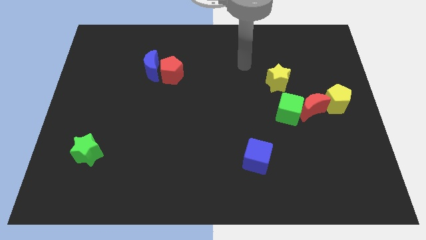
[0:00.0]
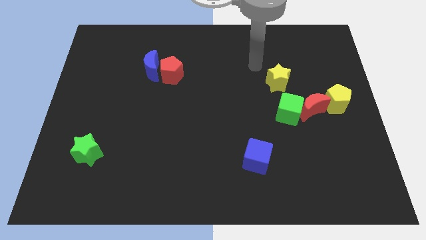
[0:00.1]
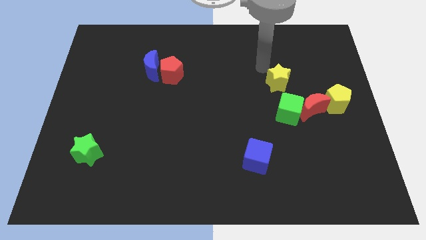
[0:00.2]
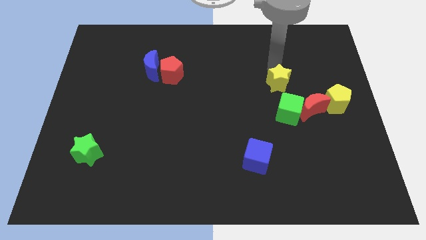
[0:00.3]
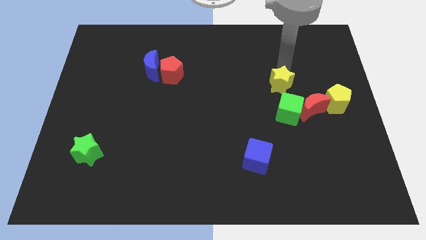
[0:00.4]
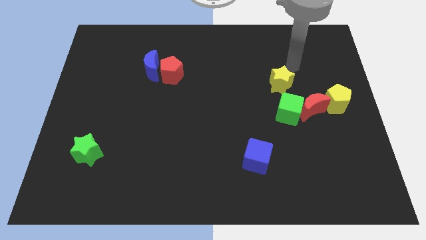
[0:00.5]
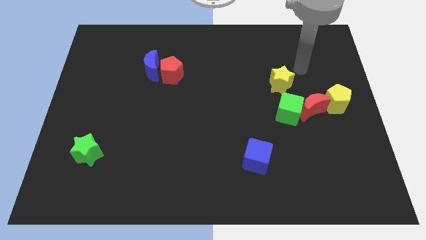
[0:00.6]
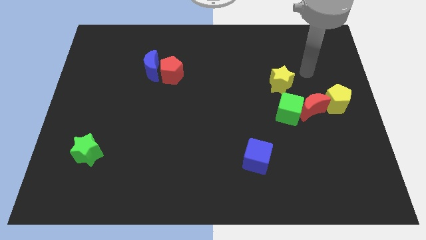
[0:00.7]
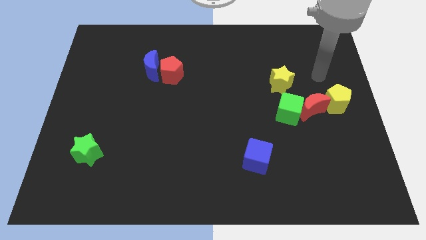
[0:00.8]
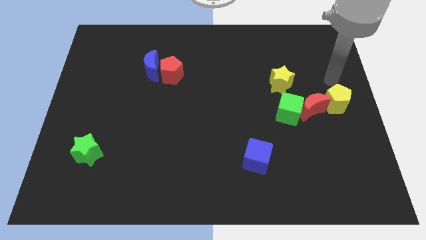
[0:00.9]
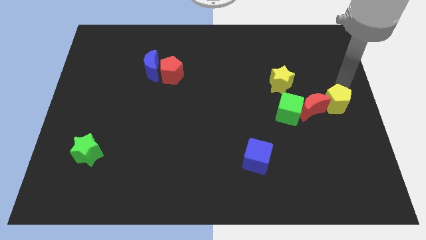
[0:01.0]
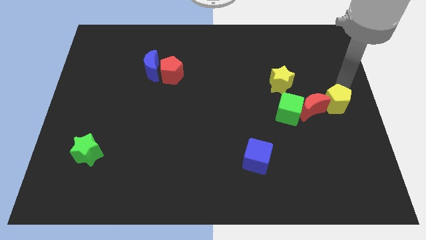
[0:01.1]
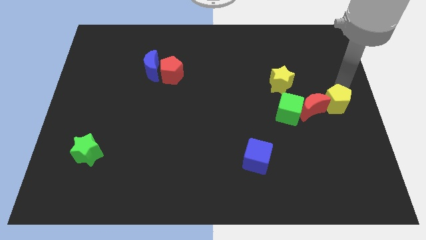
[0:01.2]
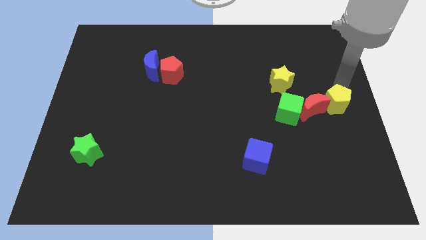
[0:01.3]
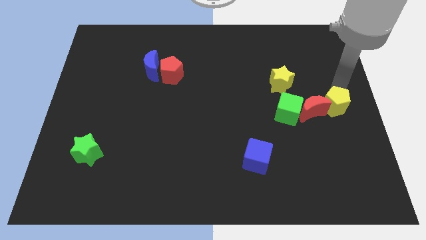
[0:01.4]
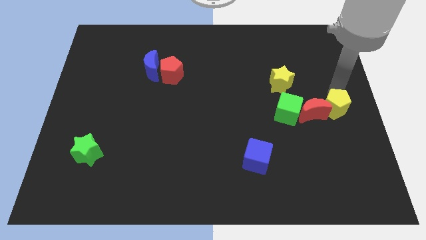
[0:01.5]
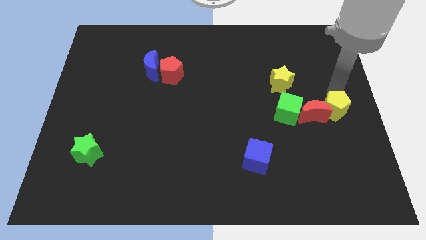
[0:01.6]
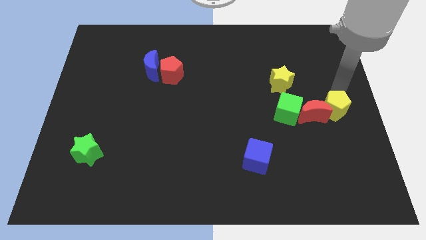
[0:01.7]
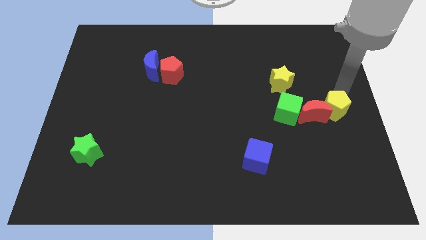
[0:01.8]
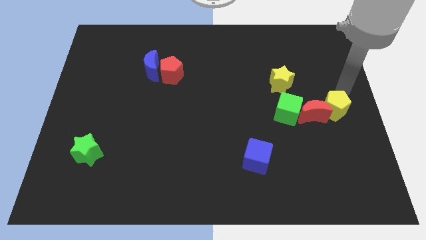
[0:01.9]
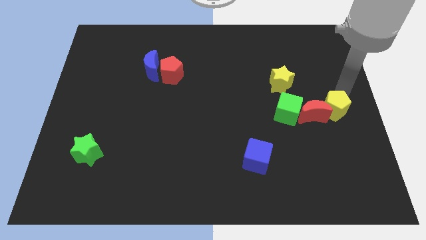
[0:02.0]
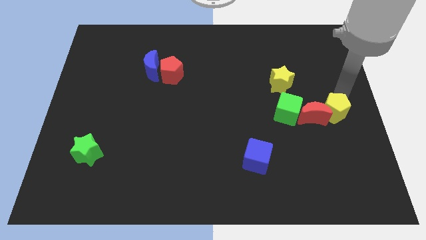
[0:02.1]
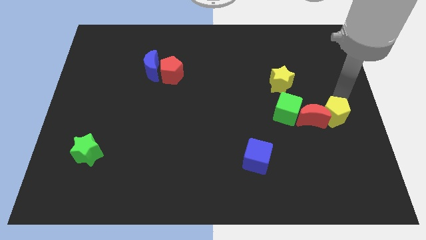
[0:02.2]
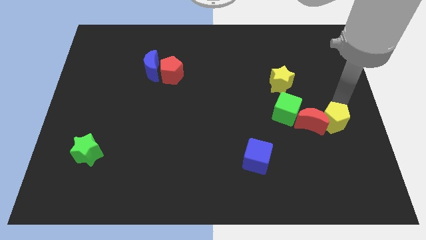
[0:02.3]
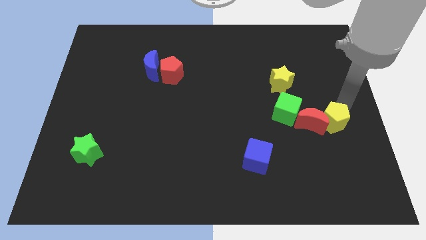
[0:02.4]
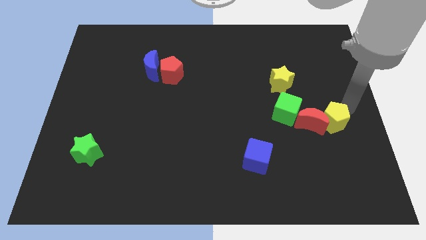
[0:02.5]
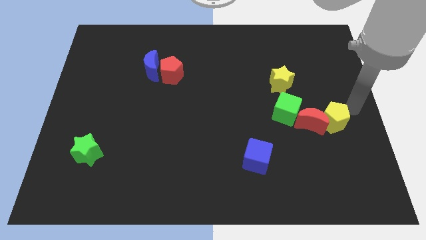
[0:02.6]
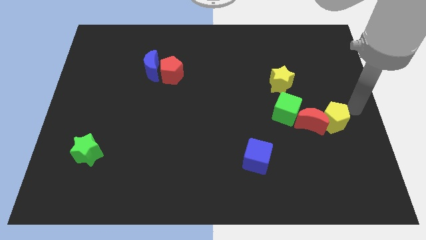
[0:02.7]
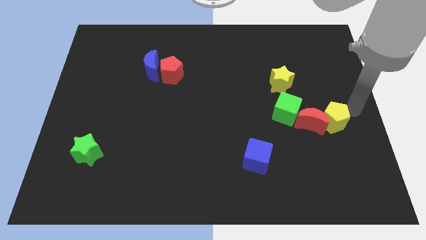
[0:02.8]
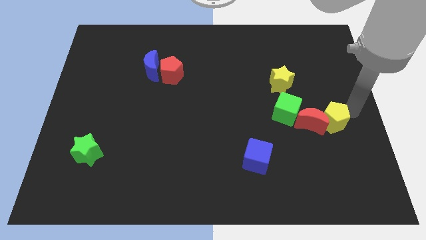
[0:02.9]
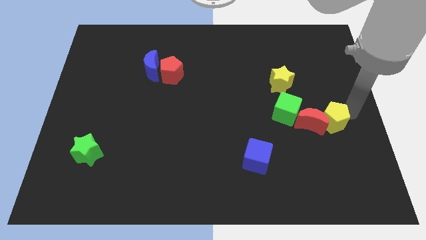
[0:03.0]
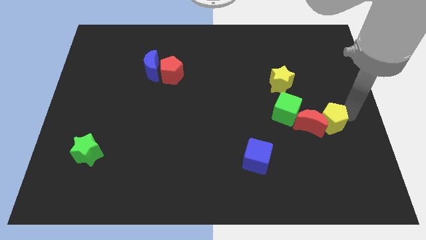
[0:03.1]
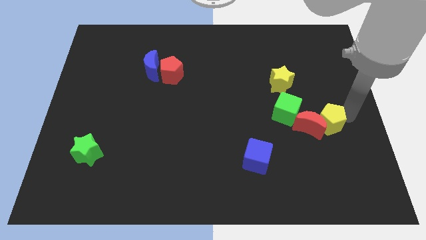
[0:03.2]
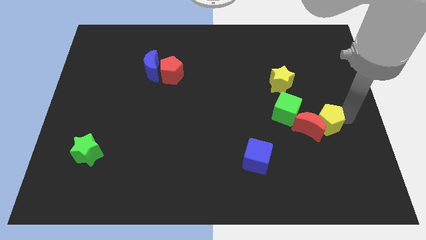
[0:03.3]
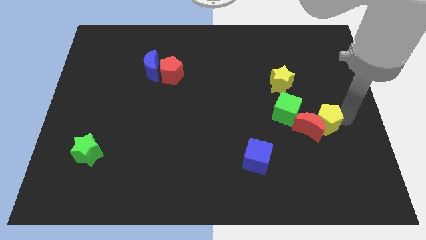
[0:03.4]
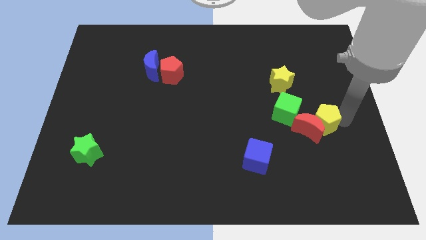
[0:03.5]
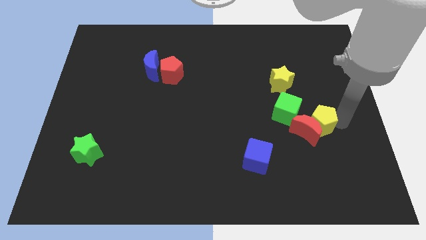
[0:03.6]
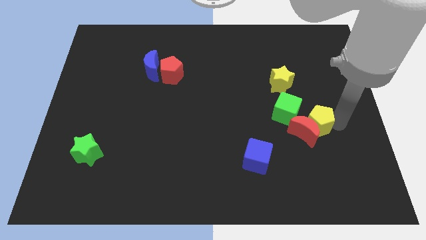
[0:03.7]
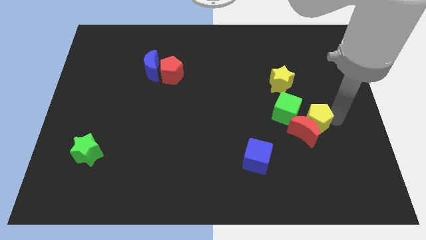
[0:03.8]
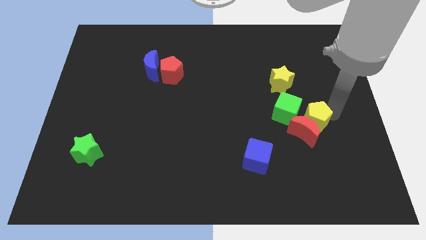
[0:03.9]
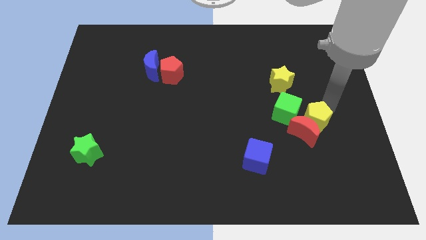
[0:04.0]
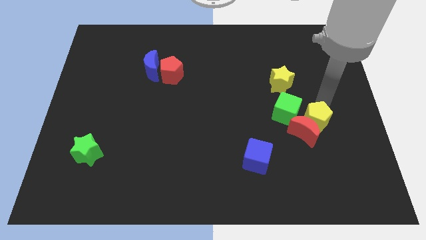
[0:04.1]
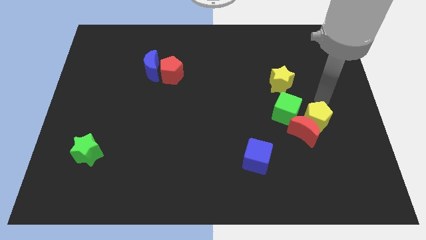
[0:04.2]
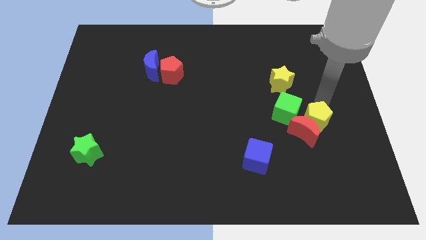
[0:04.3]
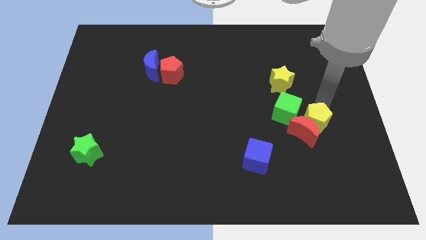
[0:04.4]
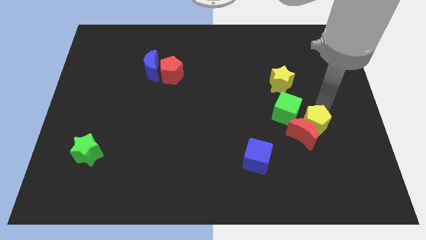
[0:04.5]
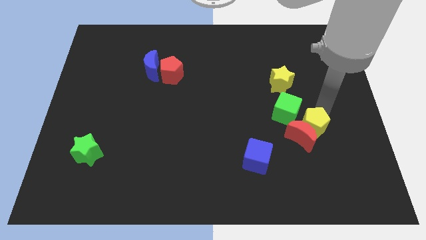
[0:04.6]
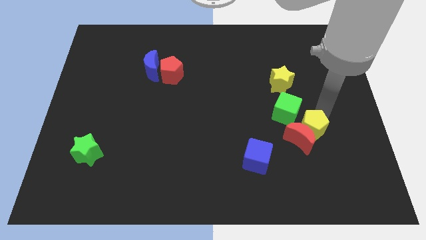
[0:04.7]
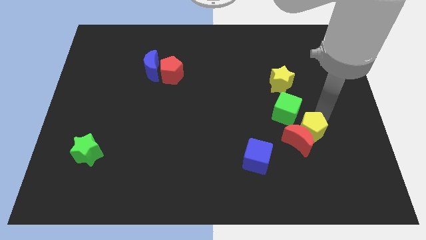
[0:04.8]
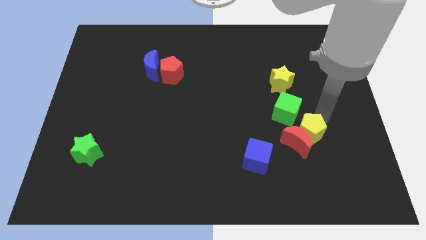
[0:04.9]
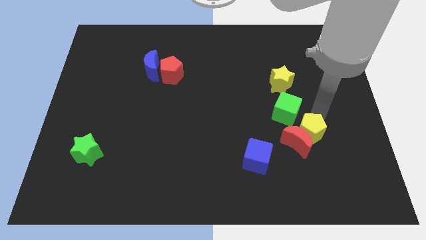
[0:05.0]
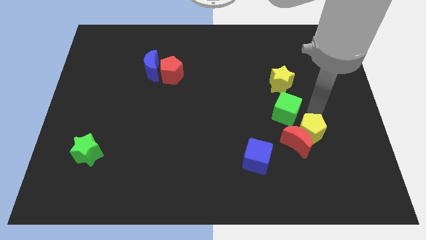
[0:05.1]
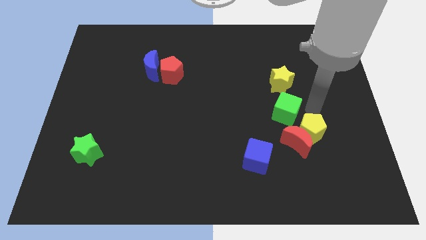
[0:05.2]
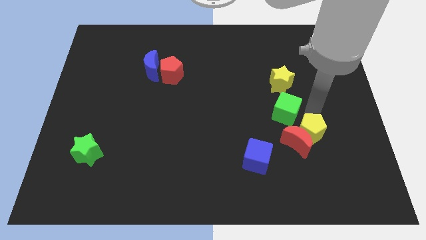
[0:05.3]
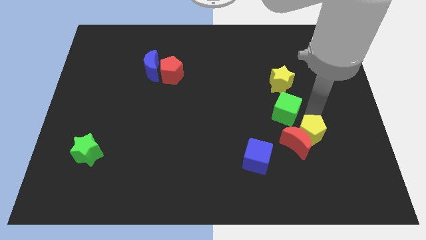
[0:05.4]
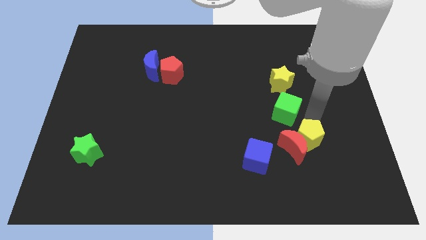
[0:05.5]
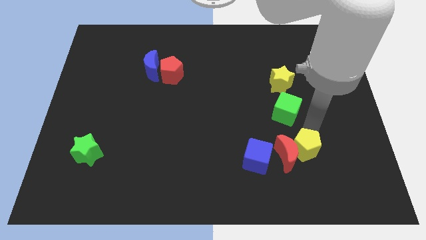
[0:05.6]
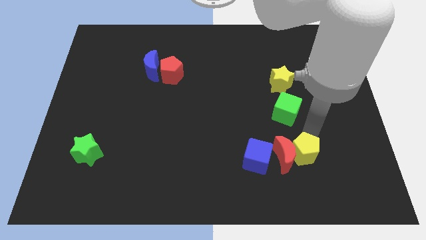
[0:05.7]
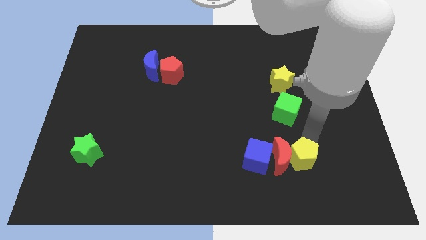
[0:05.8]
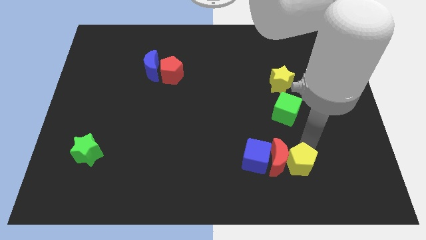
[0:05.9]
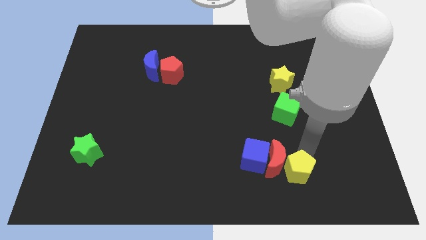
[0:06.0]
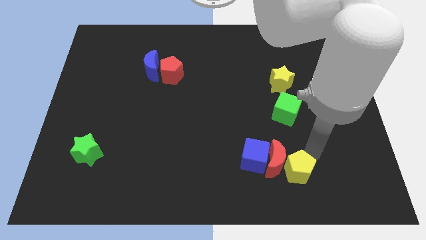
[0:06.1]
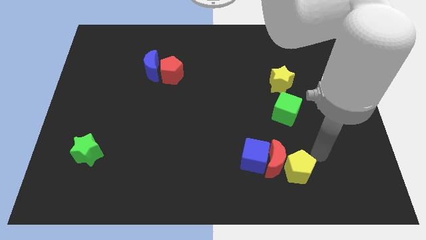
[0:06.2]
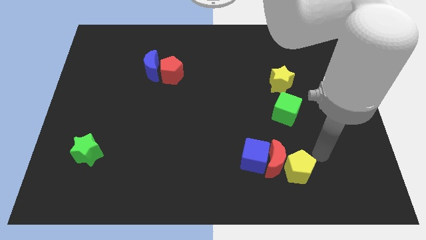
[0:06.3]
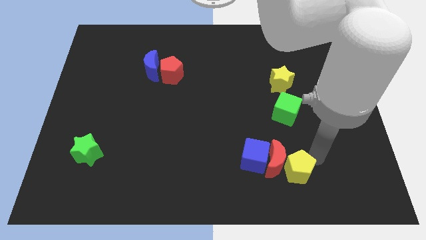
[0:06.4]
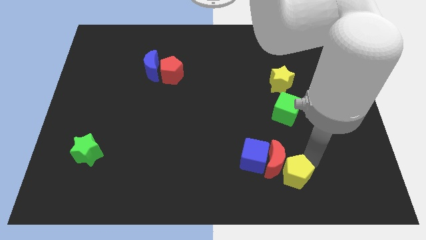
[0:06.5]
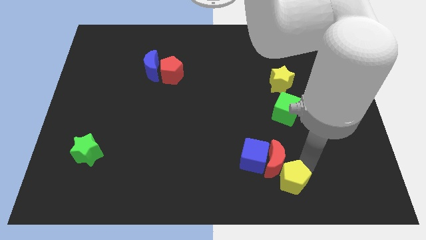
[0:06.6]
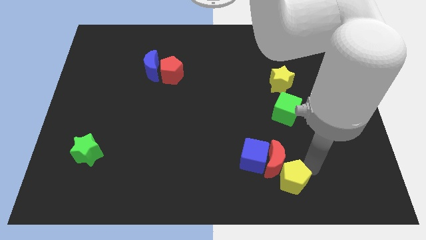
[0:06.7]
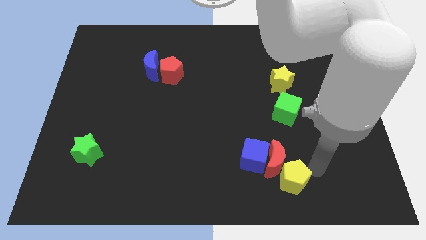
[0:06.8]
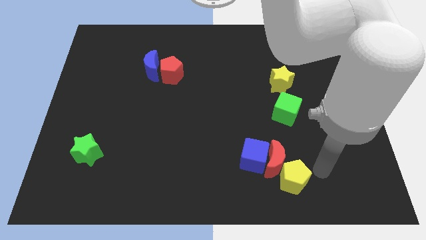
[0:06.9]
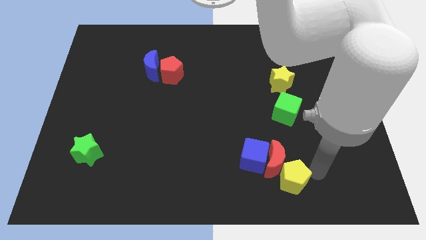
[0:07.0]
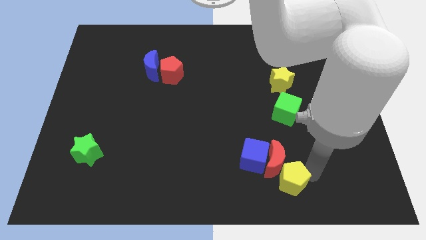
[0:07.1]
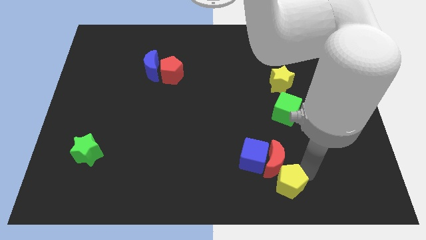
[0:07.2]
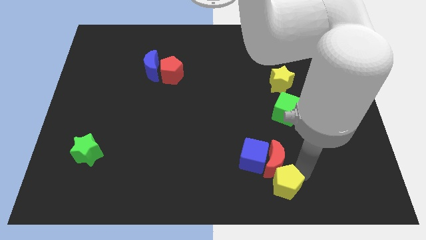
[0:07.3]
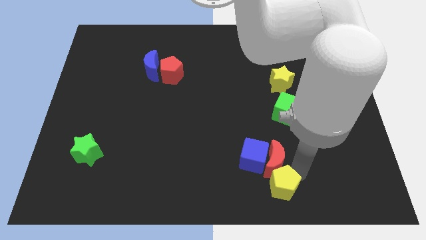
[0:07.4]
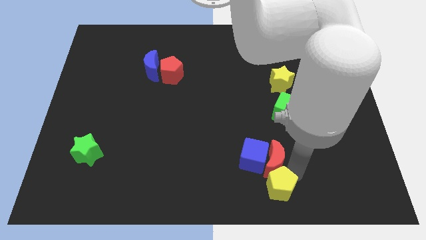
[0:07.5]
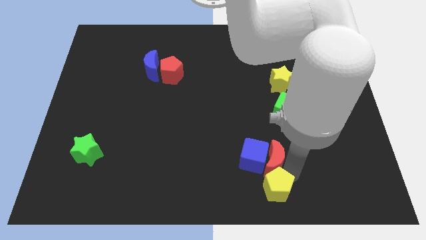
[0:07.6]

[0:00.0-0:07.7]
put the yellow pentagon to the bottom
